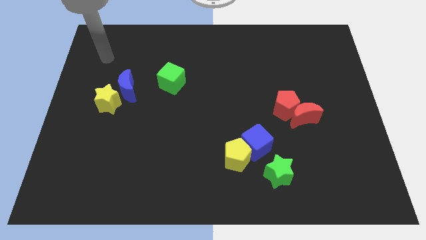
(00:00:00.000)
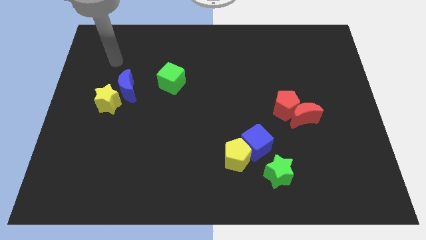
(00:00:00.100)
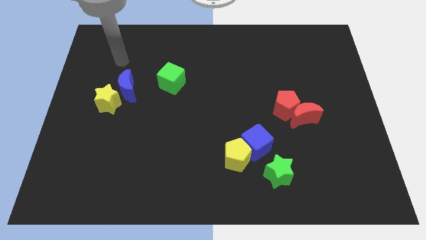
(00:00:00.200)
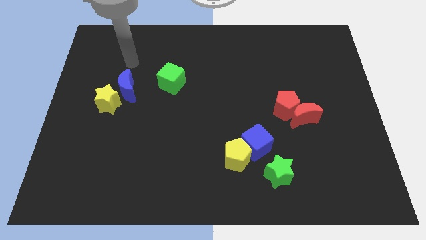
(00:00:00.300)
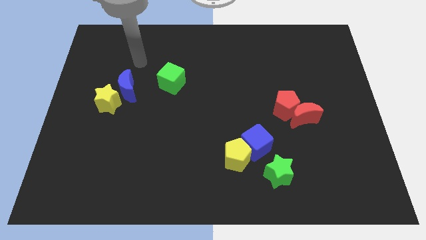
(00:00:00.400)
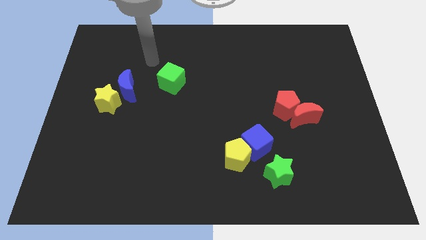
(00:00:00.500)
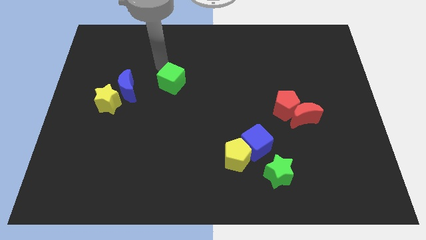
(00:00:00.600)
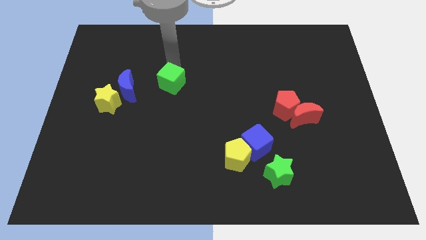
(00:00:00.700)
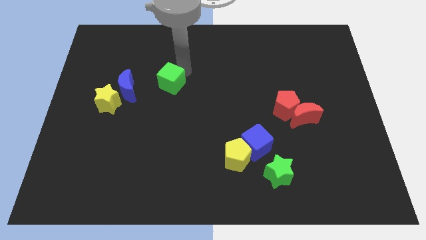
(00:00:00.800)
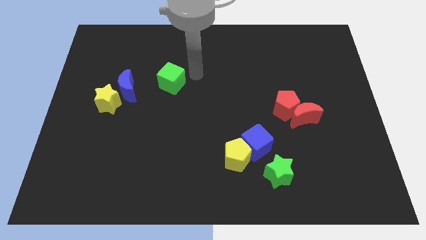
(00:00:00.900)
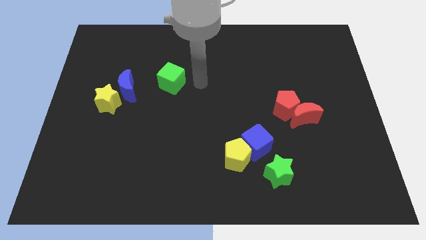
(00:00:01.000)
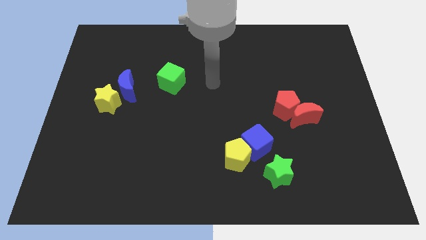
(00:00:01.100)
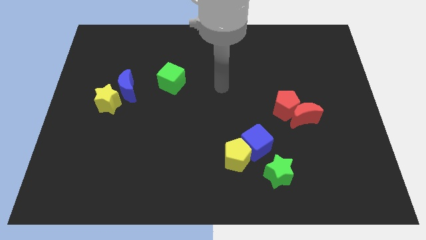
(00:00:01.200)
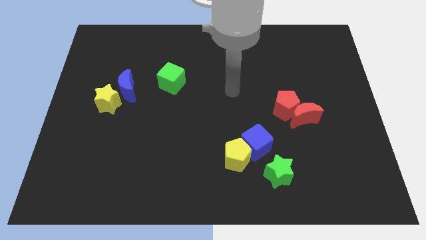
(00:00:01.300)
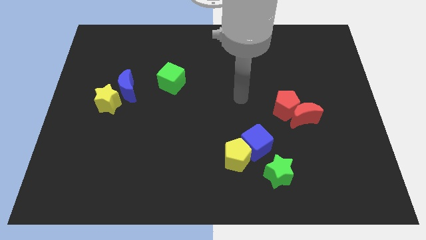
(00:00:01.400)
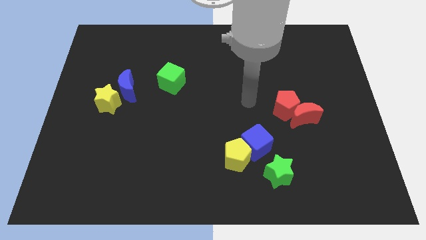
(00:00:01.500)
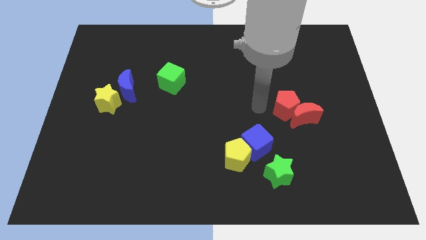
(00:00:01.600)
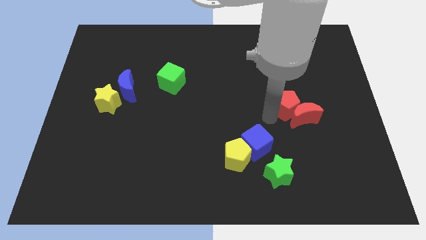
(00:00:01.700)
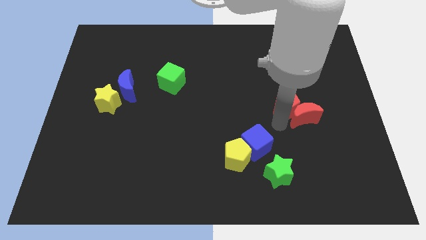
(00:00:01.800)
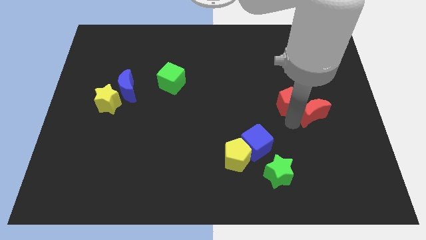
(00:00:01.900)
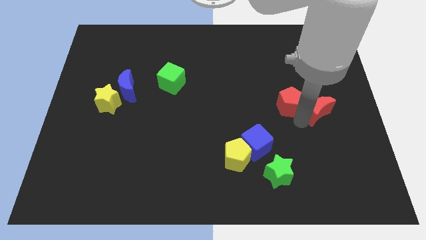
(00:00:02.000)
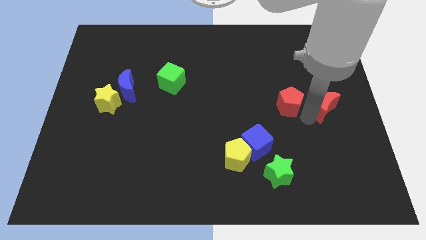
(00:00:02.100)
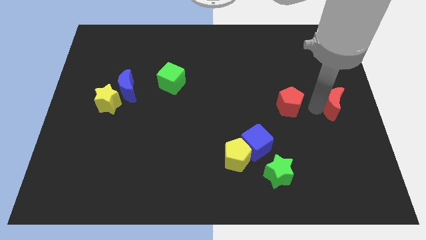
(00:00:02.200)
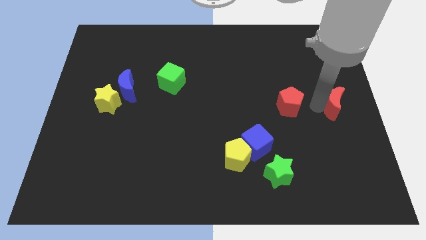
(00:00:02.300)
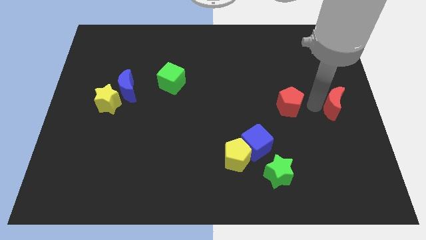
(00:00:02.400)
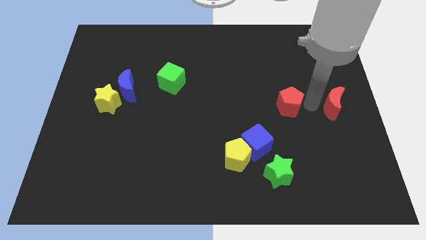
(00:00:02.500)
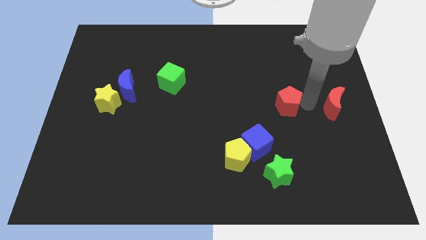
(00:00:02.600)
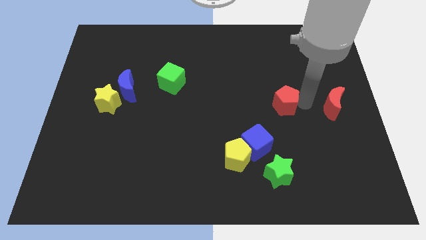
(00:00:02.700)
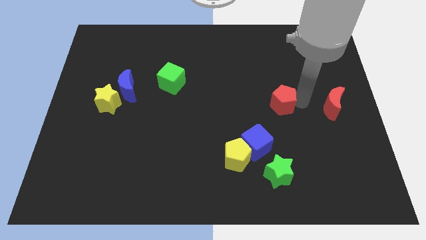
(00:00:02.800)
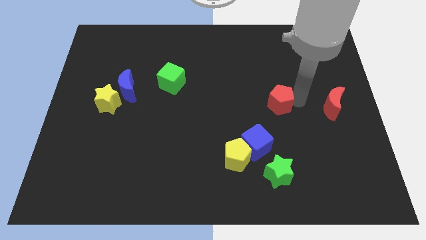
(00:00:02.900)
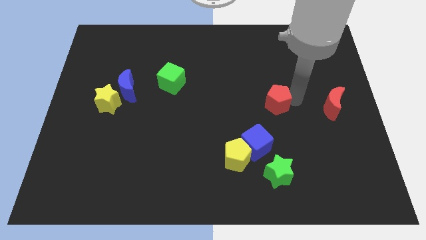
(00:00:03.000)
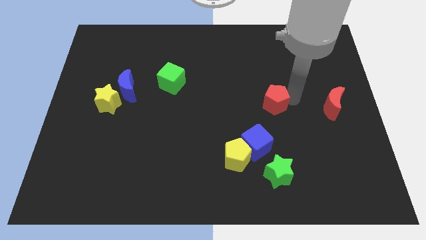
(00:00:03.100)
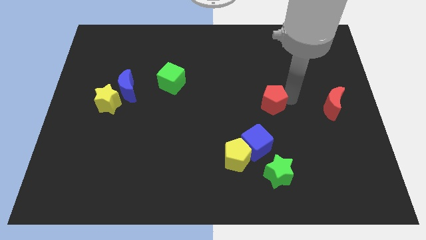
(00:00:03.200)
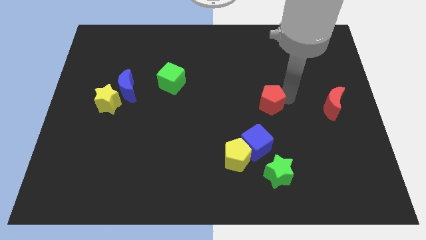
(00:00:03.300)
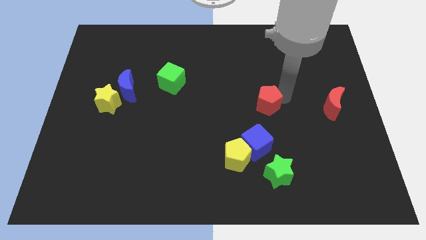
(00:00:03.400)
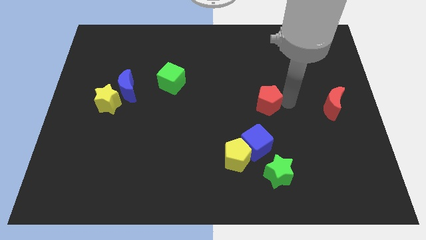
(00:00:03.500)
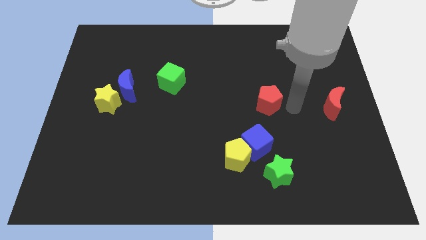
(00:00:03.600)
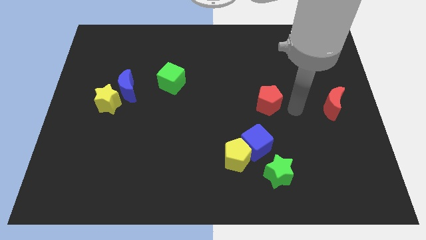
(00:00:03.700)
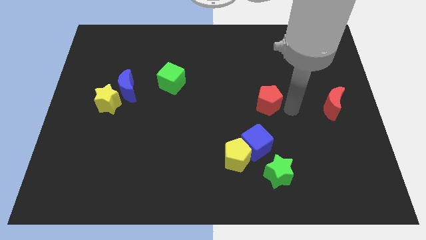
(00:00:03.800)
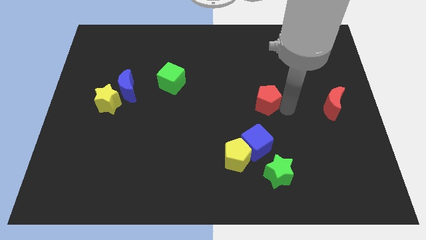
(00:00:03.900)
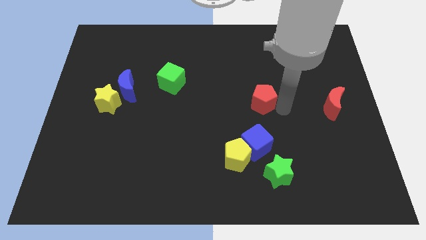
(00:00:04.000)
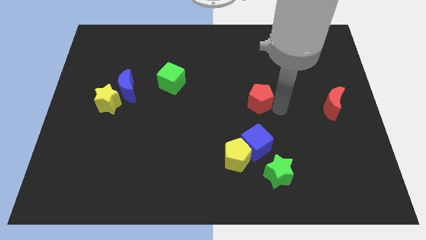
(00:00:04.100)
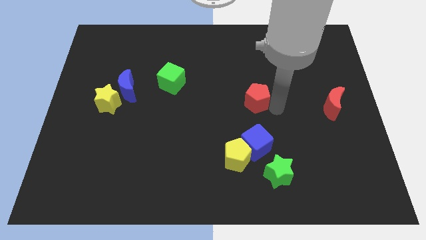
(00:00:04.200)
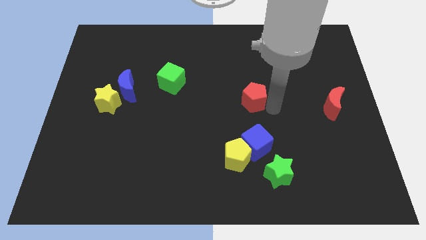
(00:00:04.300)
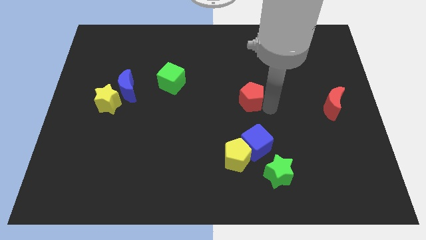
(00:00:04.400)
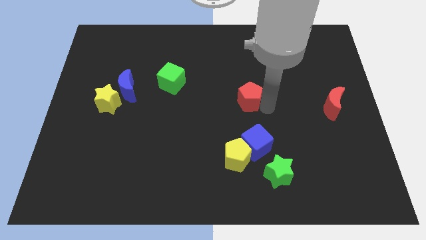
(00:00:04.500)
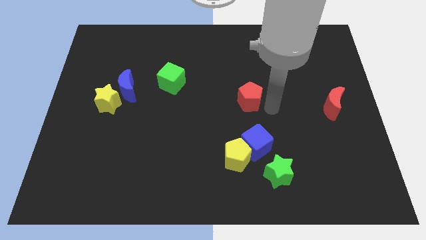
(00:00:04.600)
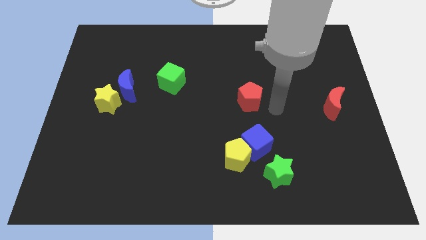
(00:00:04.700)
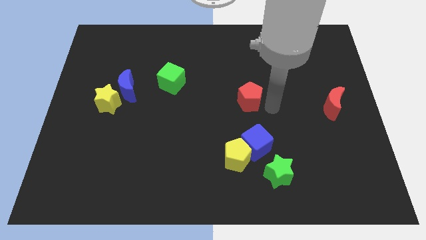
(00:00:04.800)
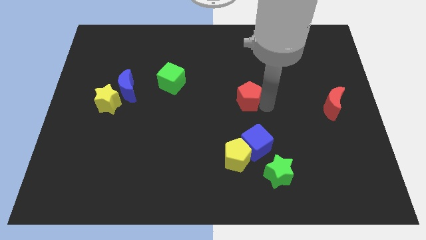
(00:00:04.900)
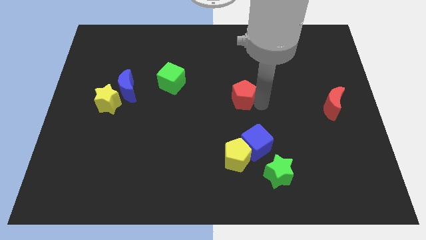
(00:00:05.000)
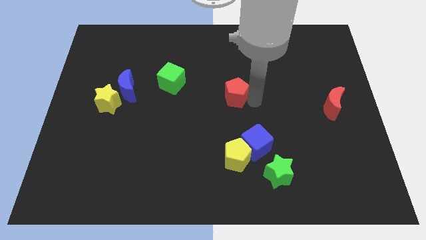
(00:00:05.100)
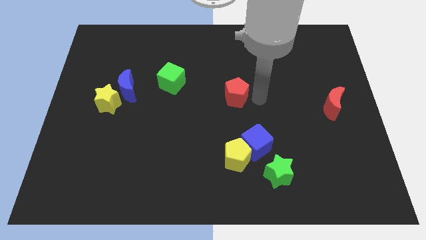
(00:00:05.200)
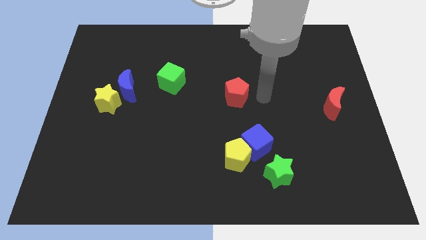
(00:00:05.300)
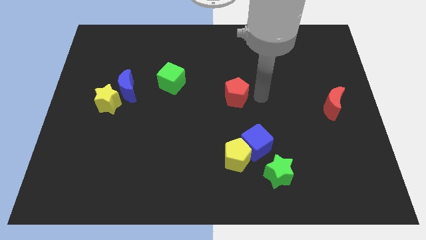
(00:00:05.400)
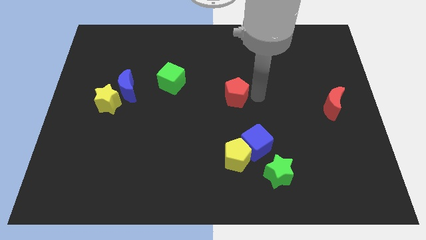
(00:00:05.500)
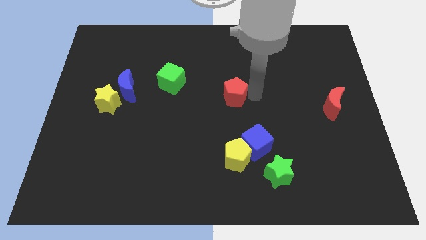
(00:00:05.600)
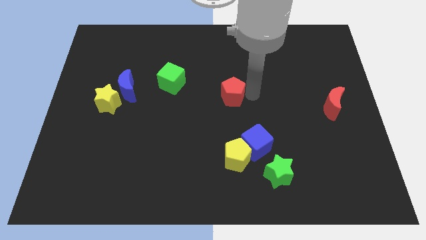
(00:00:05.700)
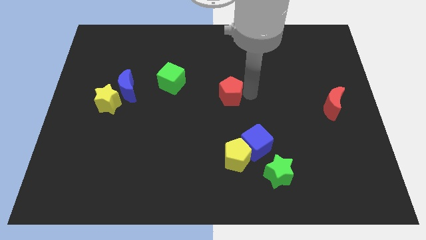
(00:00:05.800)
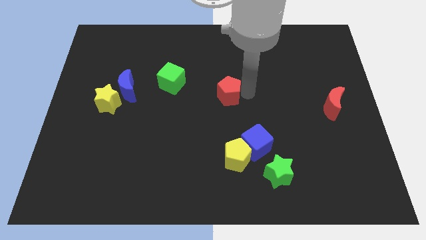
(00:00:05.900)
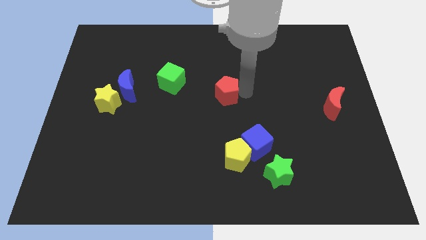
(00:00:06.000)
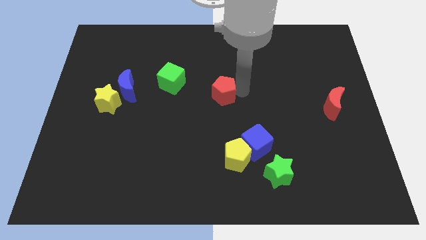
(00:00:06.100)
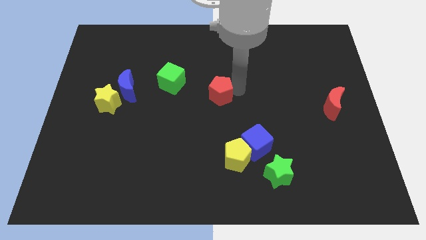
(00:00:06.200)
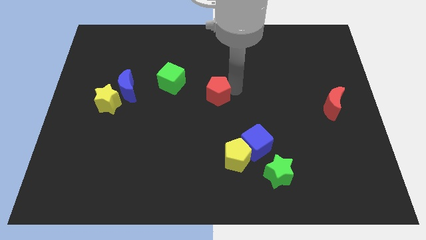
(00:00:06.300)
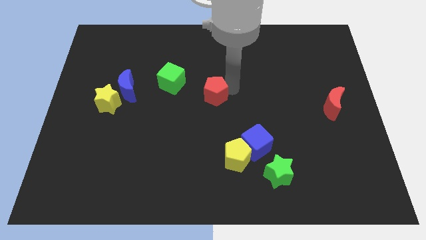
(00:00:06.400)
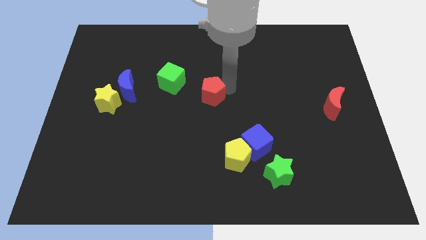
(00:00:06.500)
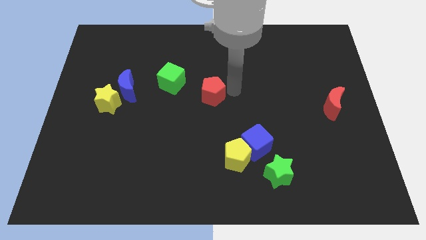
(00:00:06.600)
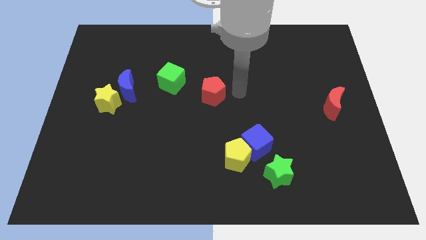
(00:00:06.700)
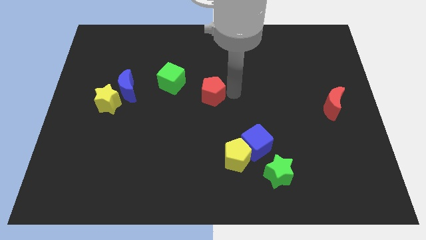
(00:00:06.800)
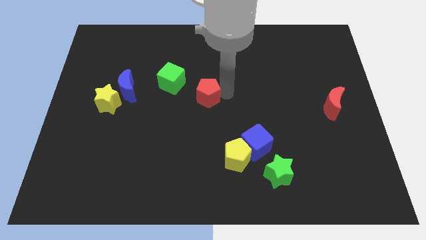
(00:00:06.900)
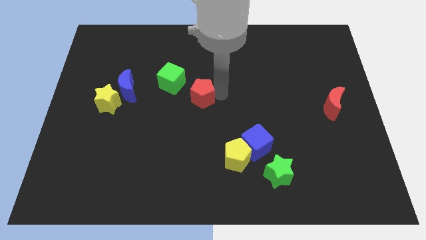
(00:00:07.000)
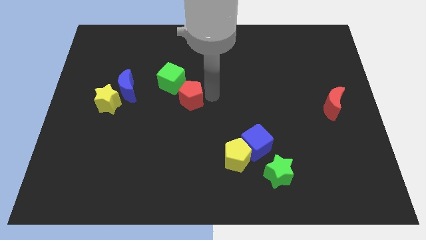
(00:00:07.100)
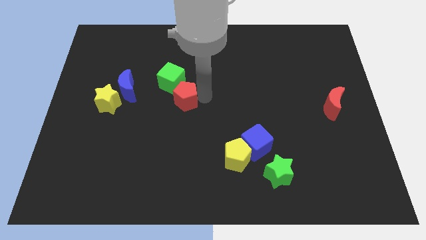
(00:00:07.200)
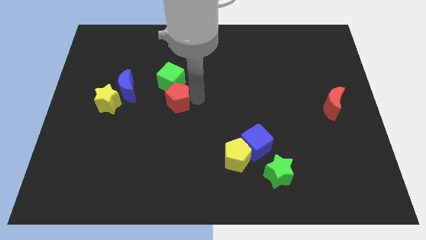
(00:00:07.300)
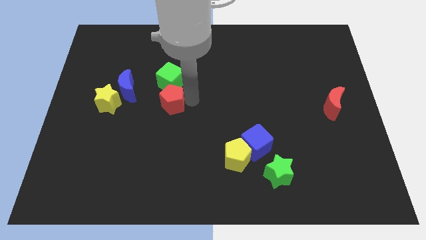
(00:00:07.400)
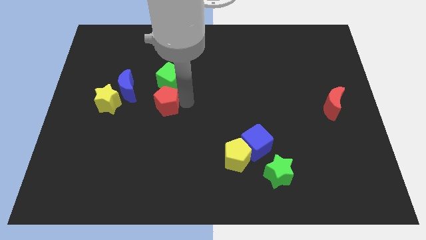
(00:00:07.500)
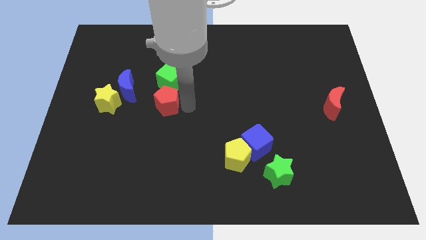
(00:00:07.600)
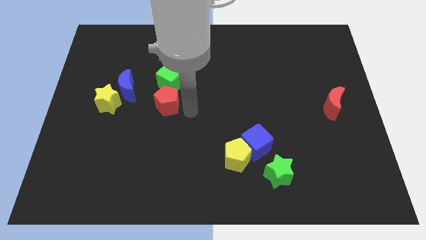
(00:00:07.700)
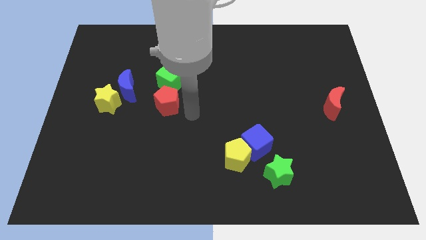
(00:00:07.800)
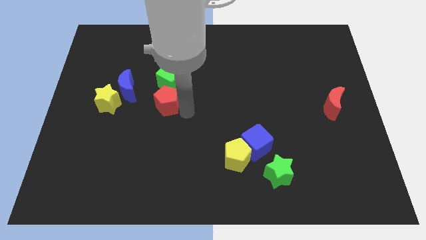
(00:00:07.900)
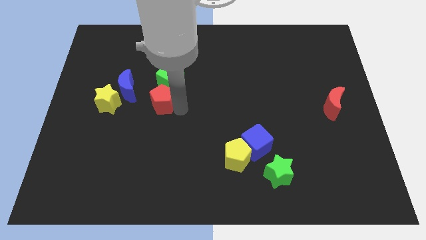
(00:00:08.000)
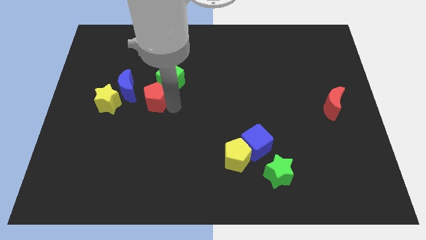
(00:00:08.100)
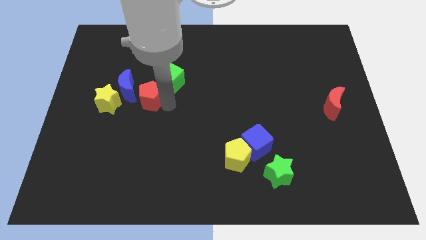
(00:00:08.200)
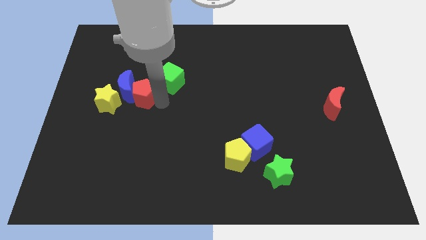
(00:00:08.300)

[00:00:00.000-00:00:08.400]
push the red pentagon next to the blue moon
